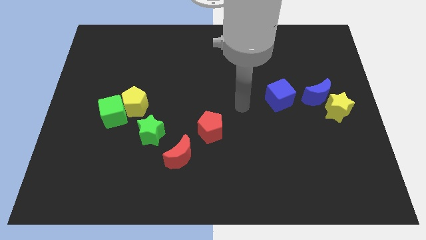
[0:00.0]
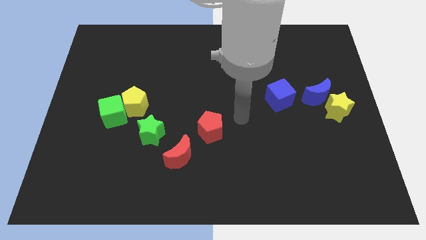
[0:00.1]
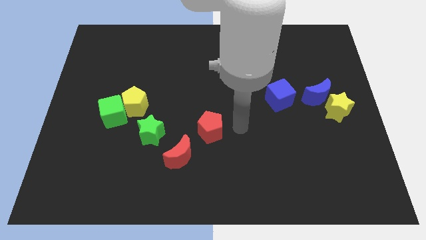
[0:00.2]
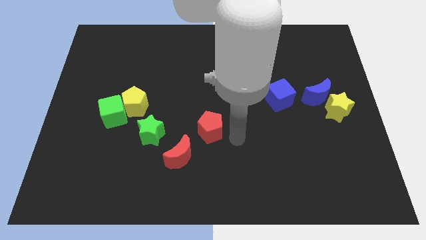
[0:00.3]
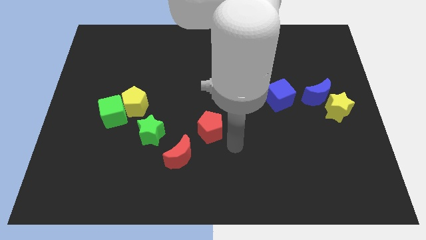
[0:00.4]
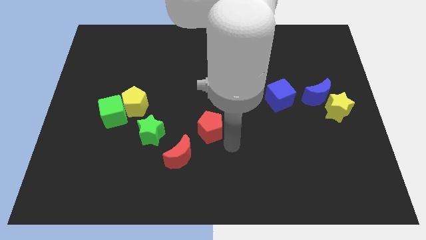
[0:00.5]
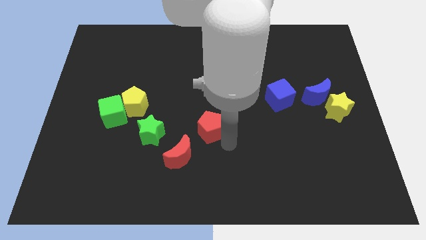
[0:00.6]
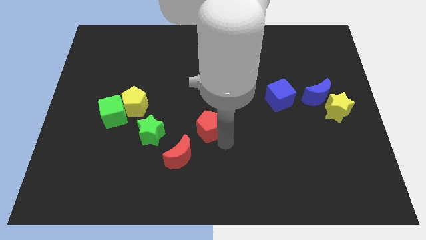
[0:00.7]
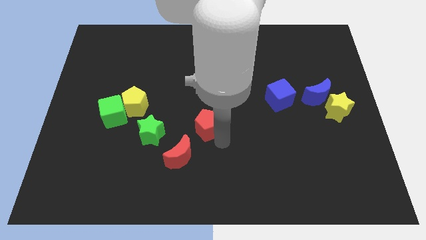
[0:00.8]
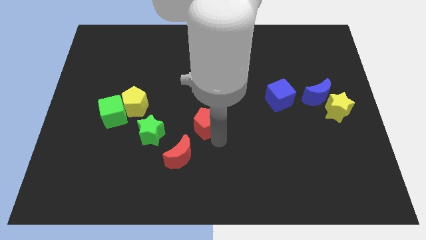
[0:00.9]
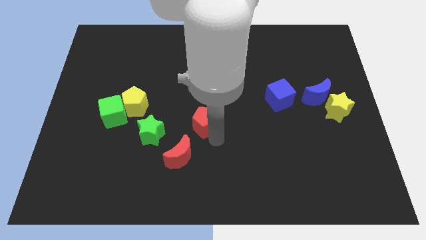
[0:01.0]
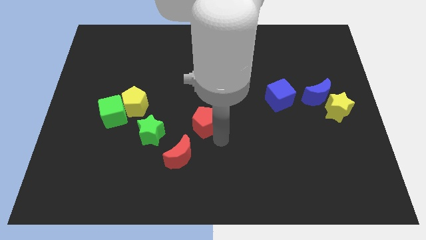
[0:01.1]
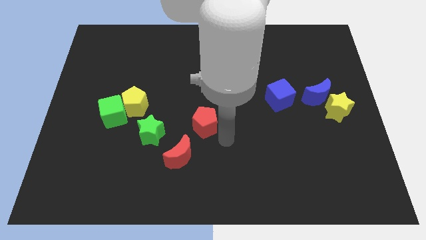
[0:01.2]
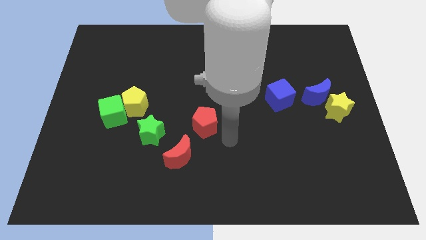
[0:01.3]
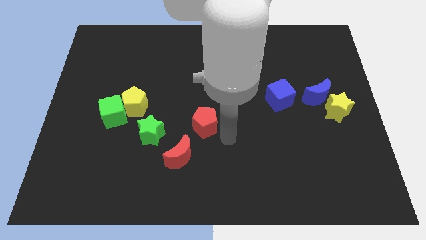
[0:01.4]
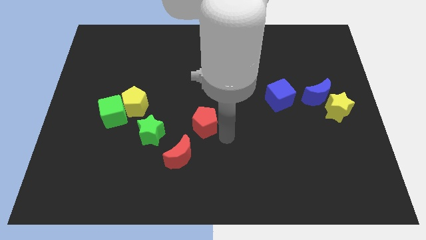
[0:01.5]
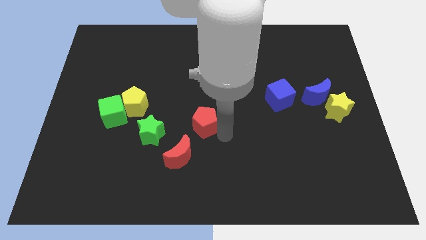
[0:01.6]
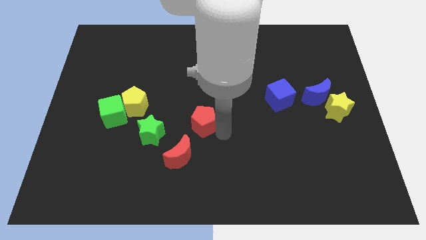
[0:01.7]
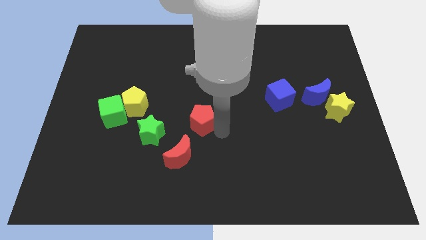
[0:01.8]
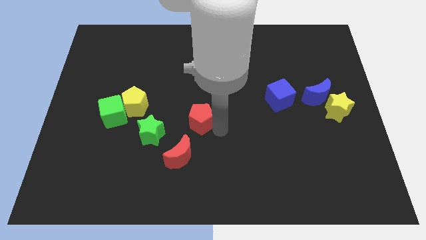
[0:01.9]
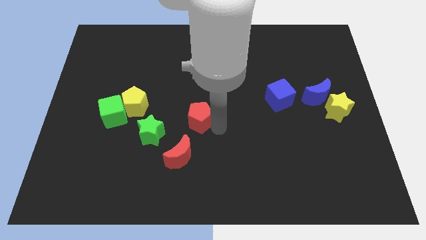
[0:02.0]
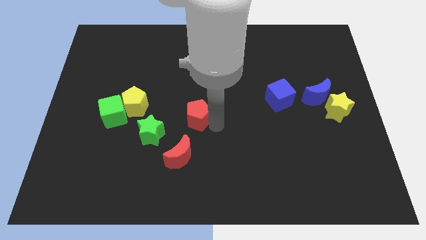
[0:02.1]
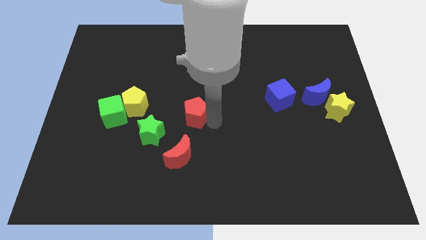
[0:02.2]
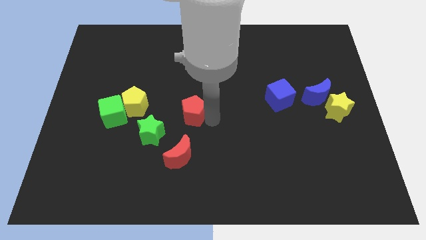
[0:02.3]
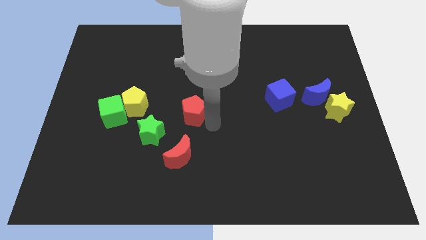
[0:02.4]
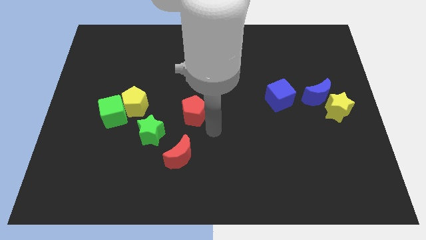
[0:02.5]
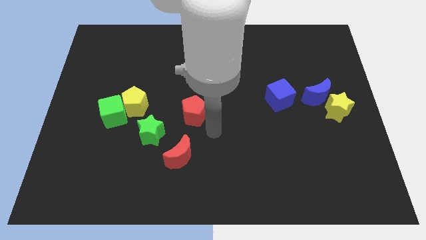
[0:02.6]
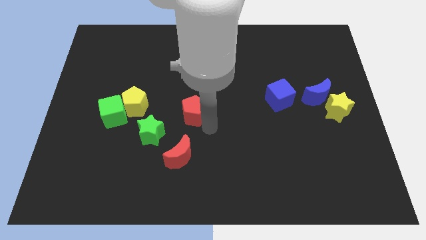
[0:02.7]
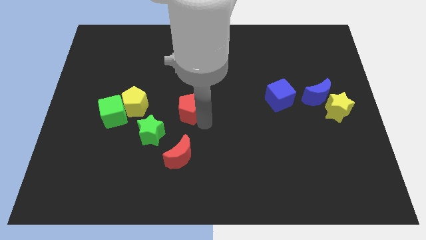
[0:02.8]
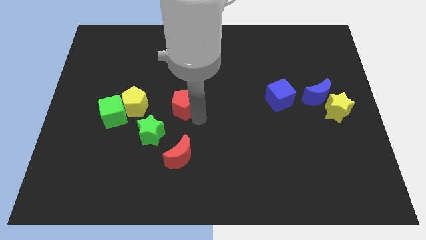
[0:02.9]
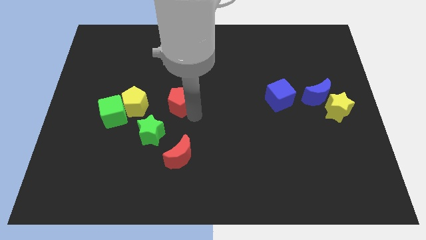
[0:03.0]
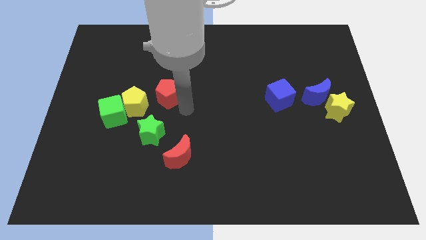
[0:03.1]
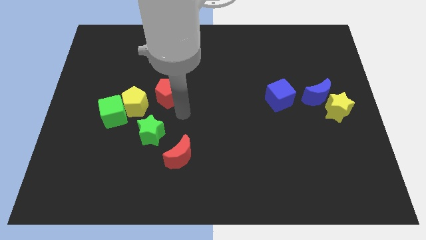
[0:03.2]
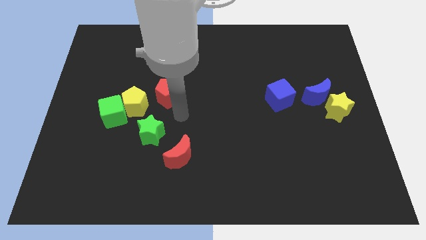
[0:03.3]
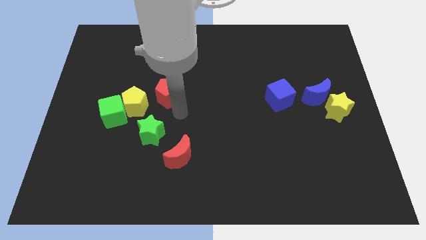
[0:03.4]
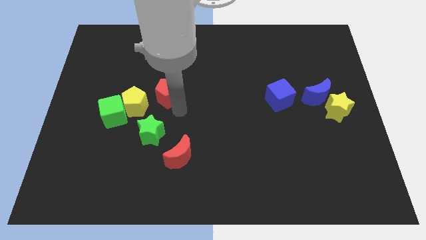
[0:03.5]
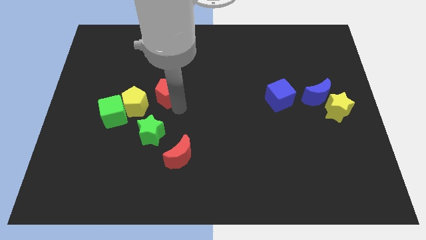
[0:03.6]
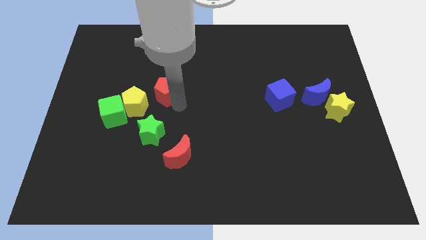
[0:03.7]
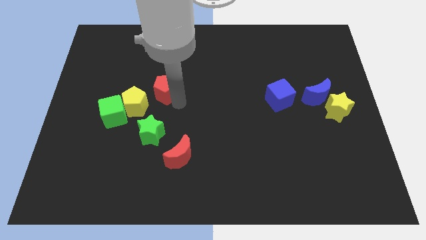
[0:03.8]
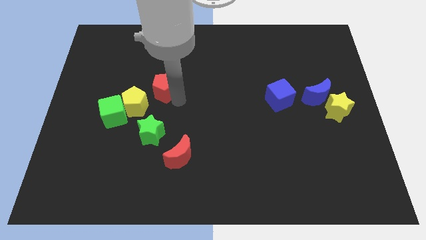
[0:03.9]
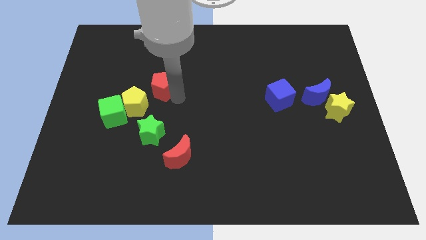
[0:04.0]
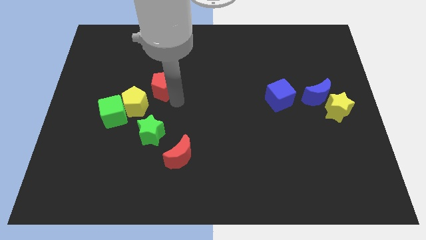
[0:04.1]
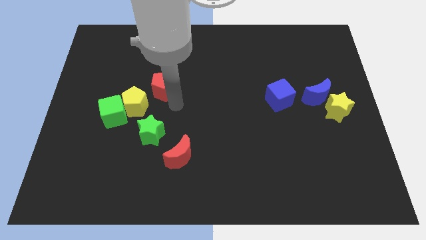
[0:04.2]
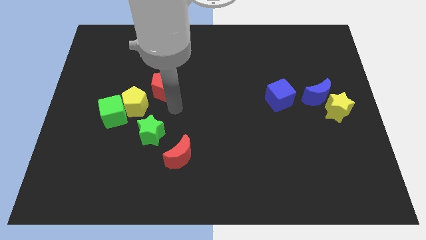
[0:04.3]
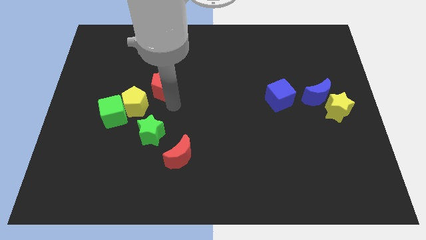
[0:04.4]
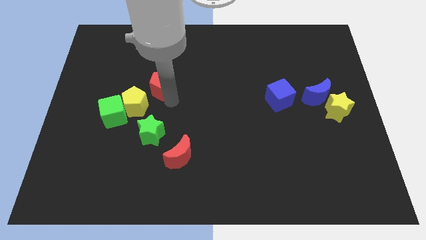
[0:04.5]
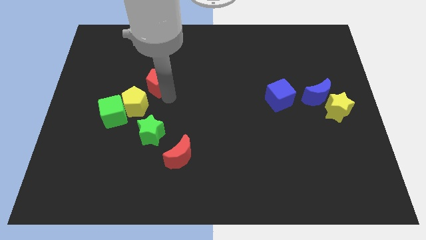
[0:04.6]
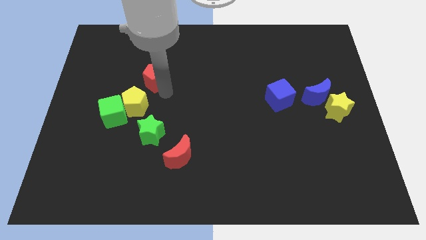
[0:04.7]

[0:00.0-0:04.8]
push the red pentagon upwards and then left

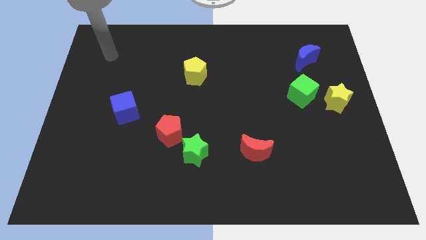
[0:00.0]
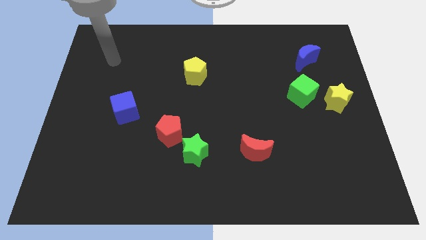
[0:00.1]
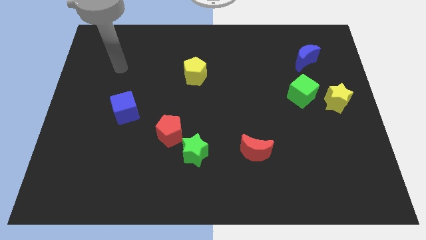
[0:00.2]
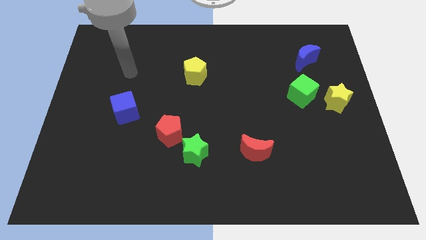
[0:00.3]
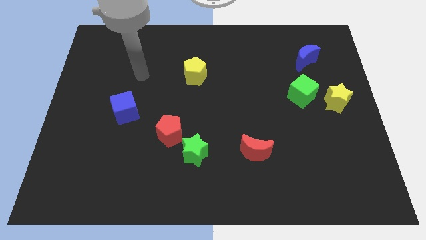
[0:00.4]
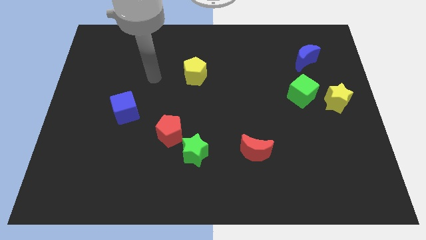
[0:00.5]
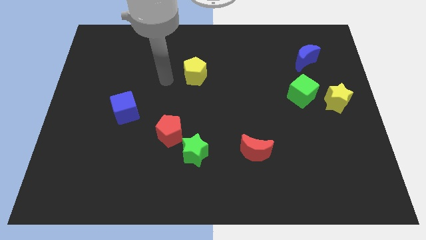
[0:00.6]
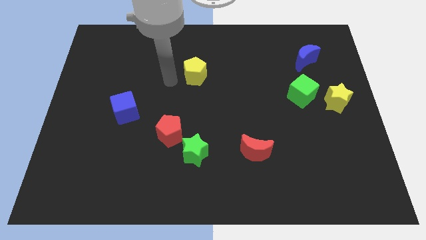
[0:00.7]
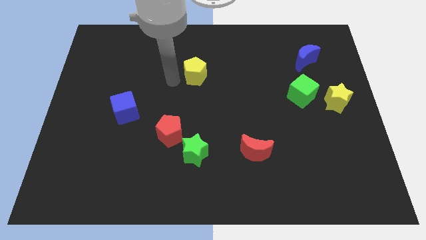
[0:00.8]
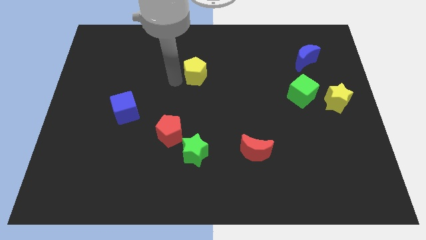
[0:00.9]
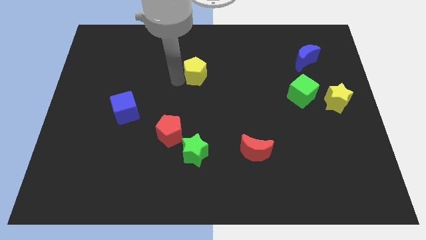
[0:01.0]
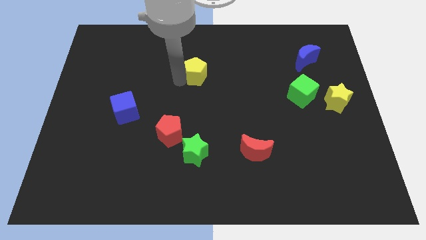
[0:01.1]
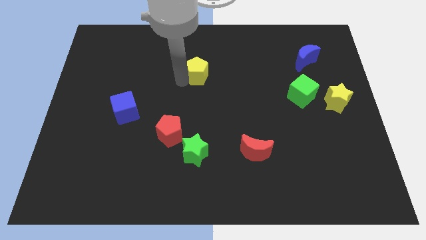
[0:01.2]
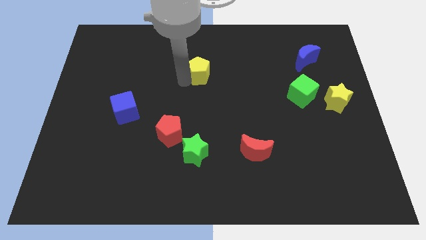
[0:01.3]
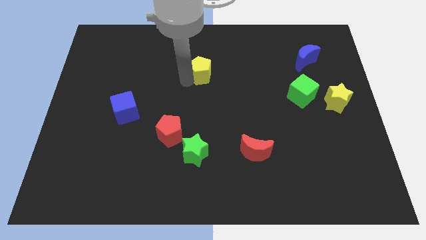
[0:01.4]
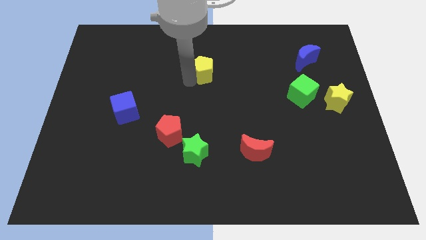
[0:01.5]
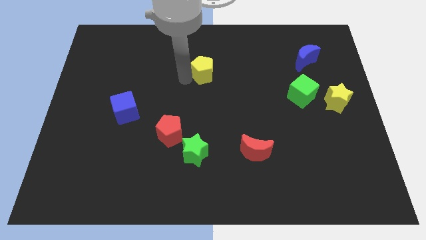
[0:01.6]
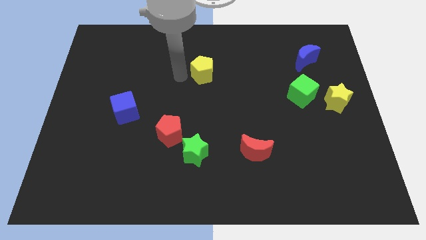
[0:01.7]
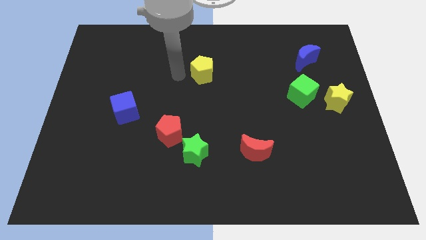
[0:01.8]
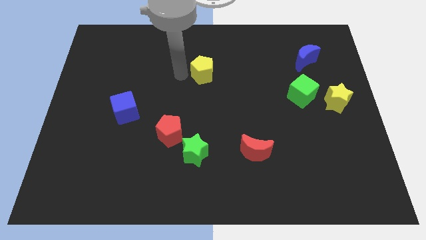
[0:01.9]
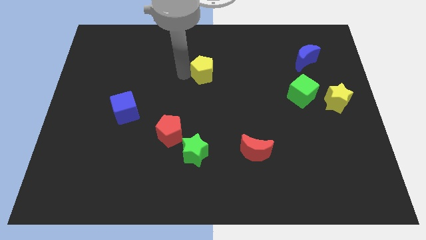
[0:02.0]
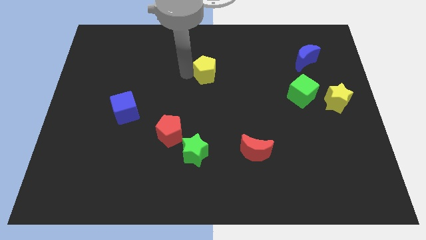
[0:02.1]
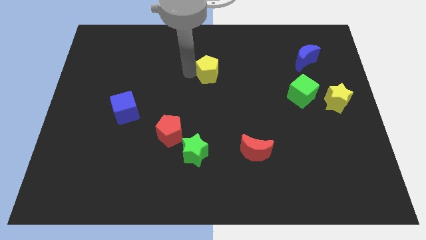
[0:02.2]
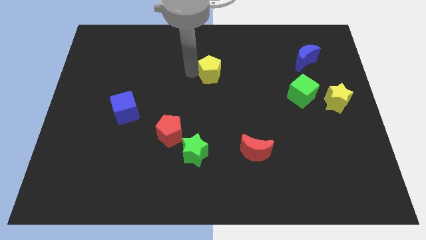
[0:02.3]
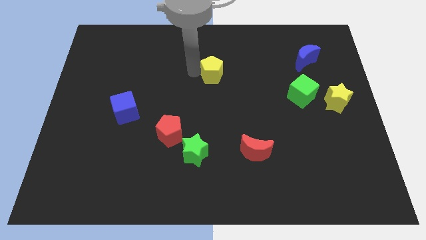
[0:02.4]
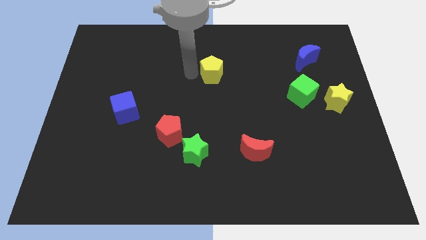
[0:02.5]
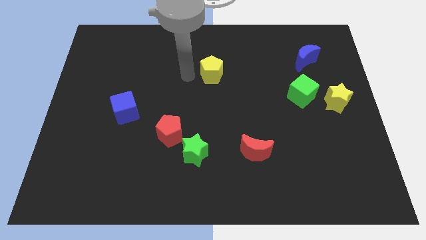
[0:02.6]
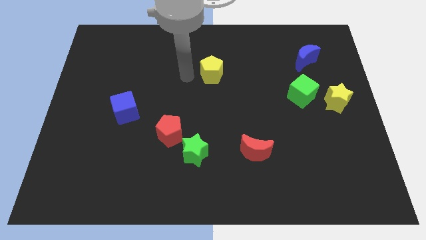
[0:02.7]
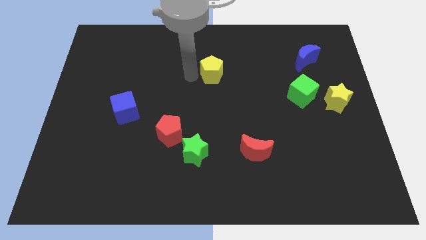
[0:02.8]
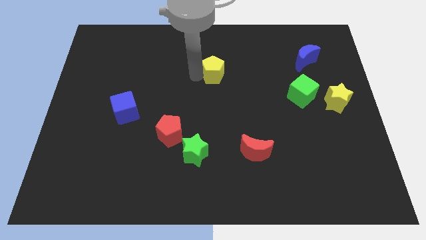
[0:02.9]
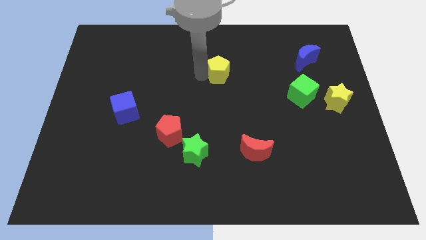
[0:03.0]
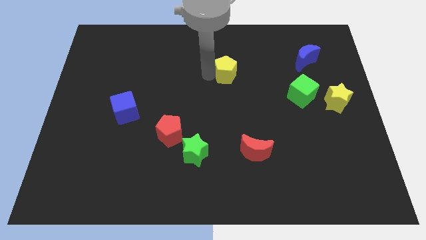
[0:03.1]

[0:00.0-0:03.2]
push the yellow pentagon somewhat to the right
